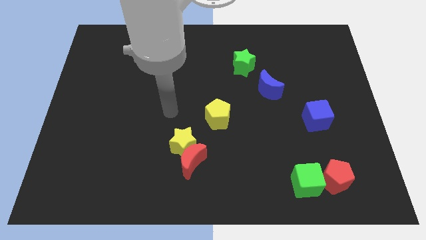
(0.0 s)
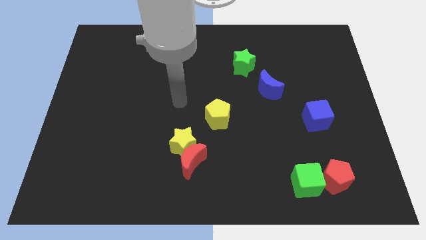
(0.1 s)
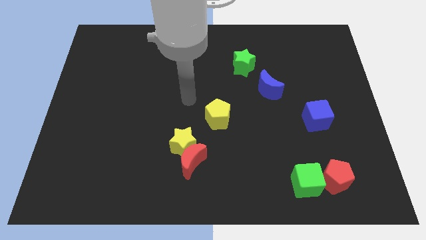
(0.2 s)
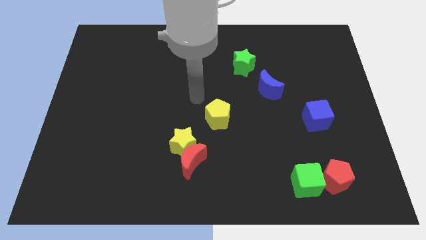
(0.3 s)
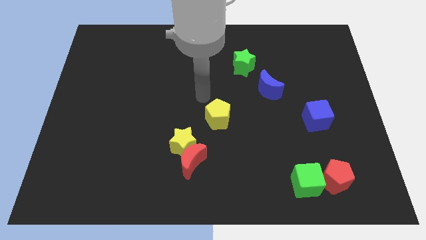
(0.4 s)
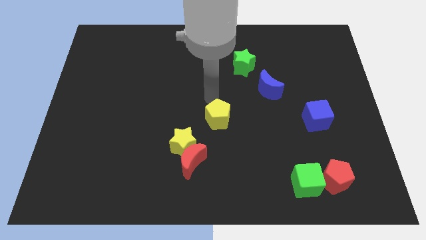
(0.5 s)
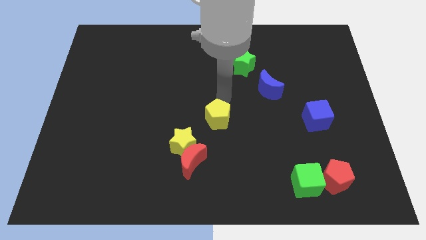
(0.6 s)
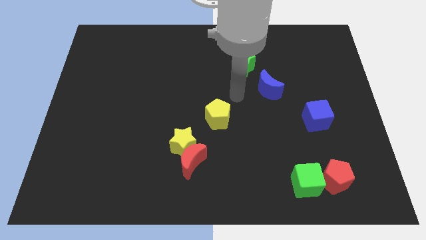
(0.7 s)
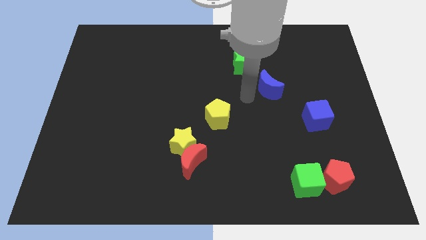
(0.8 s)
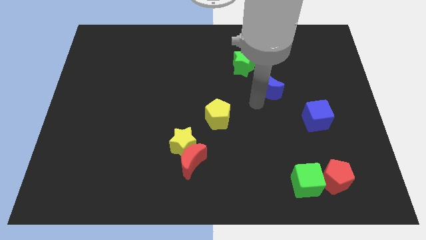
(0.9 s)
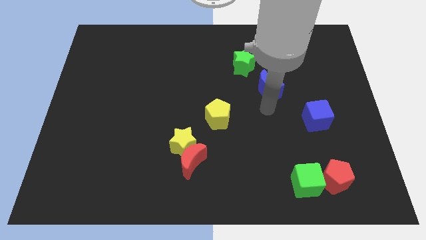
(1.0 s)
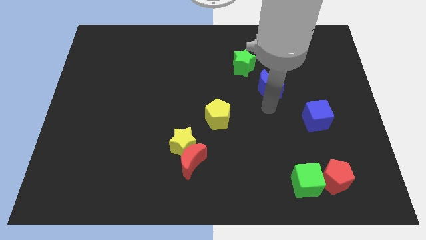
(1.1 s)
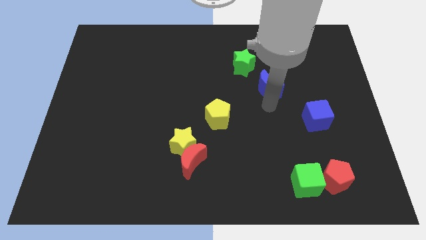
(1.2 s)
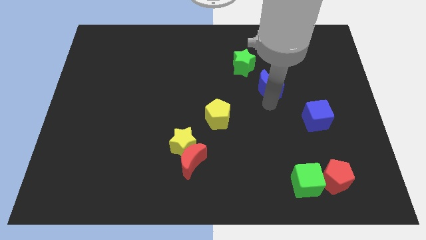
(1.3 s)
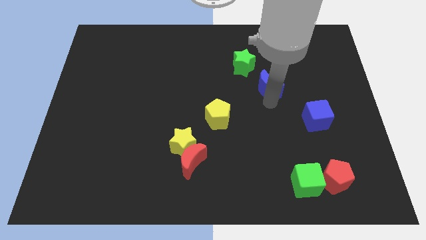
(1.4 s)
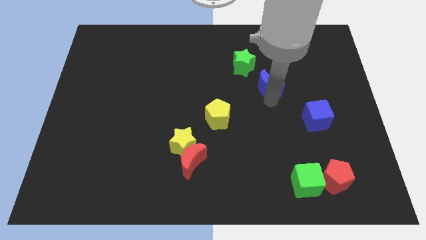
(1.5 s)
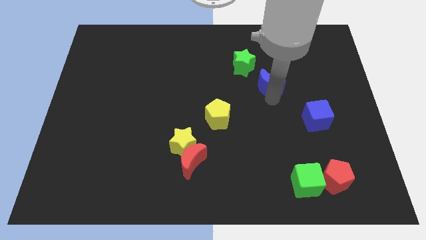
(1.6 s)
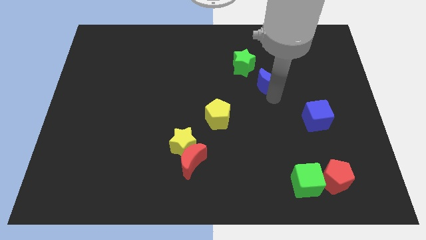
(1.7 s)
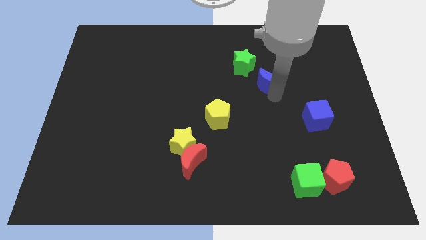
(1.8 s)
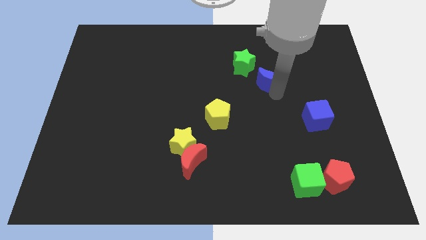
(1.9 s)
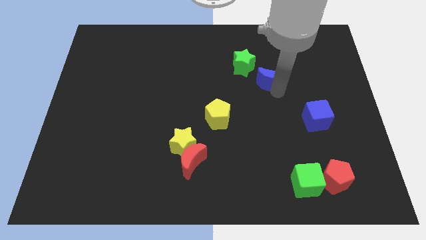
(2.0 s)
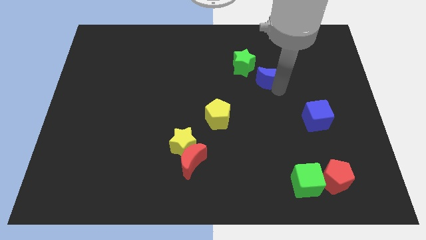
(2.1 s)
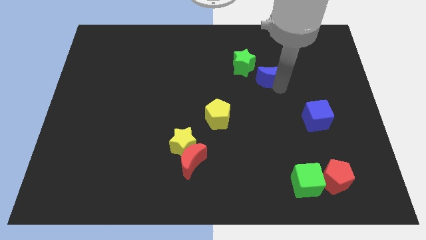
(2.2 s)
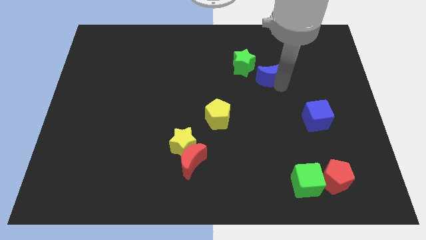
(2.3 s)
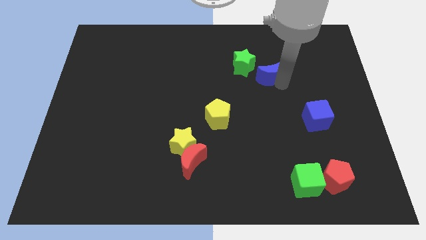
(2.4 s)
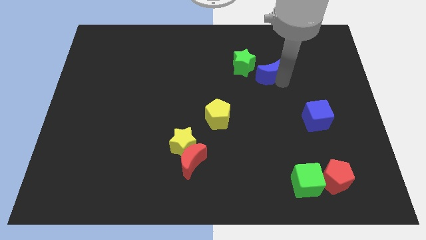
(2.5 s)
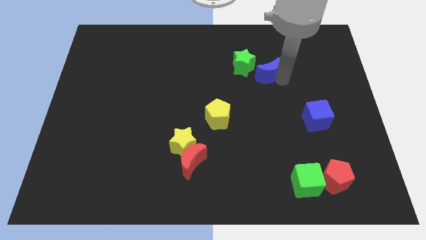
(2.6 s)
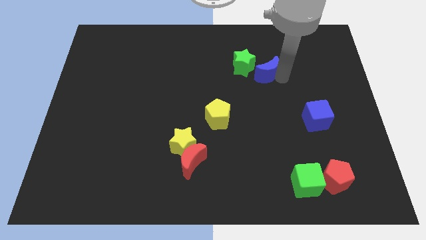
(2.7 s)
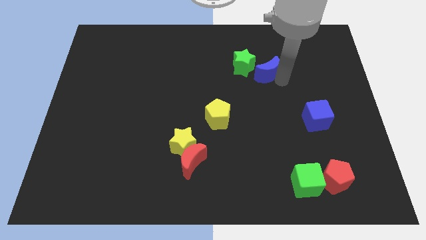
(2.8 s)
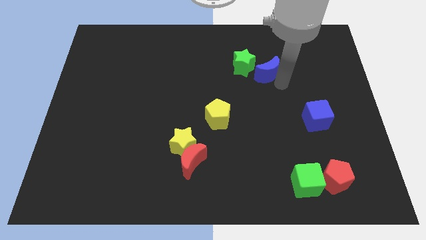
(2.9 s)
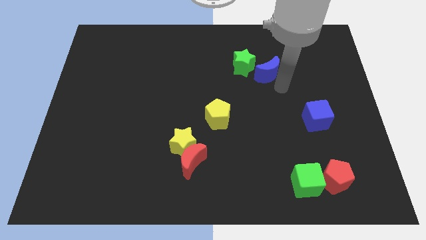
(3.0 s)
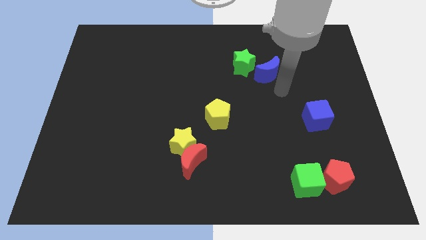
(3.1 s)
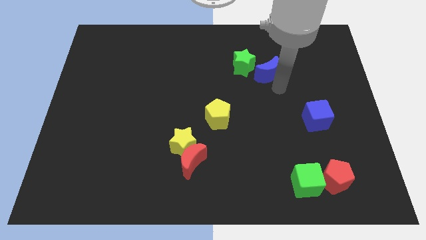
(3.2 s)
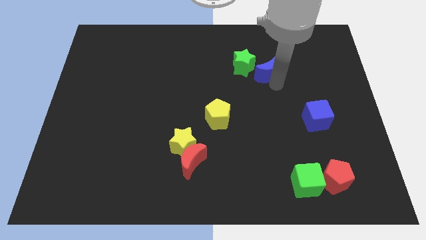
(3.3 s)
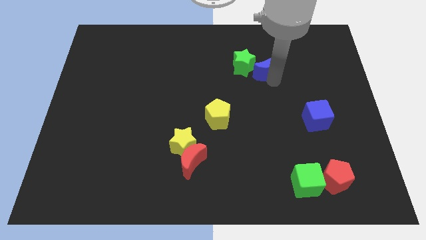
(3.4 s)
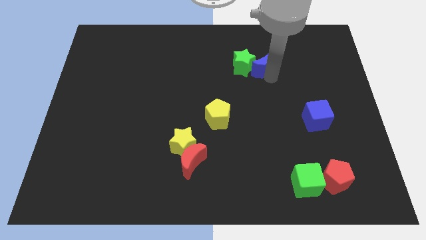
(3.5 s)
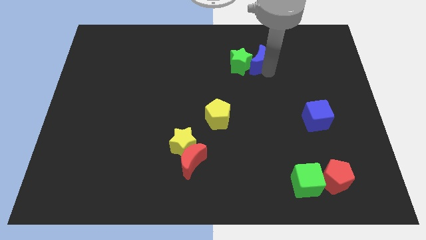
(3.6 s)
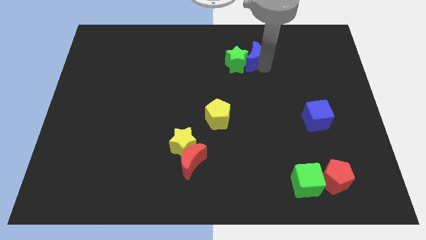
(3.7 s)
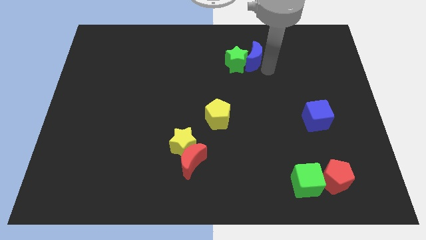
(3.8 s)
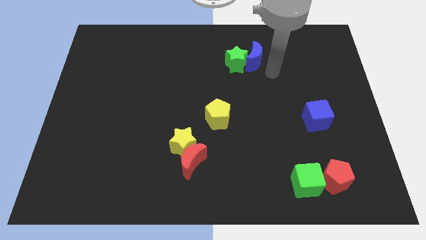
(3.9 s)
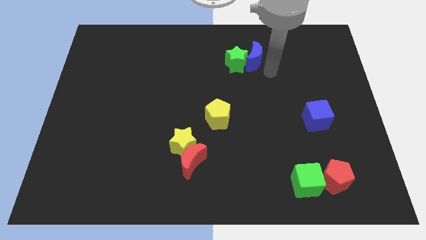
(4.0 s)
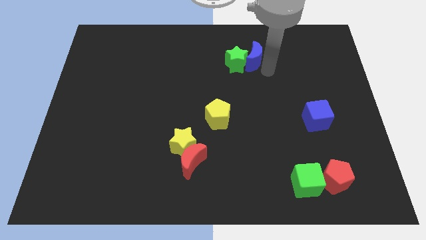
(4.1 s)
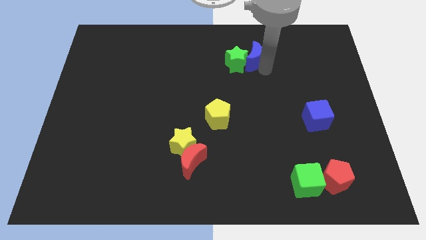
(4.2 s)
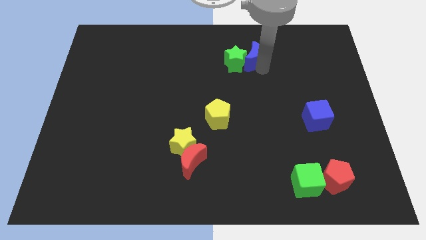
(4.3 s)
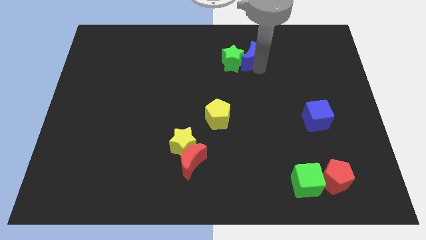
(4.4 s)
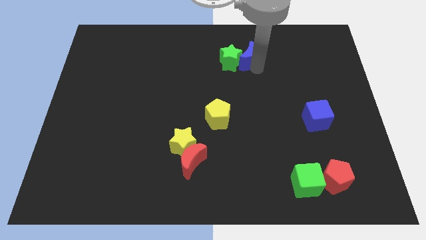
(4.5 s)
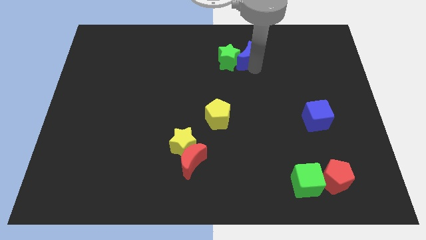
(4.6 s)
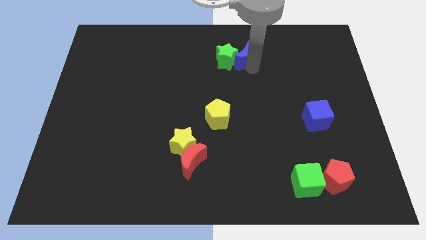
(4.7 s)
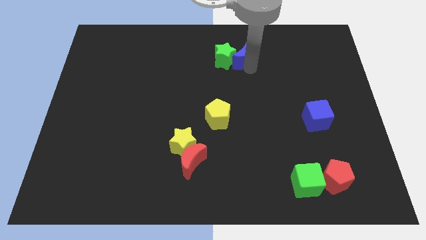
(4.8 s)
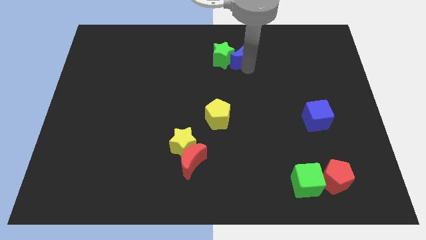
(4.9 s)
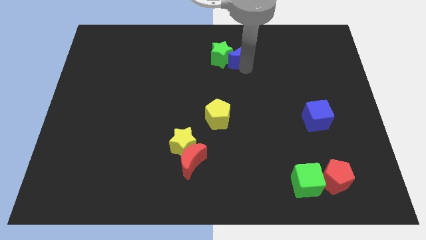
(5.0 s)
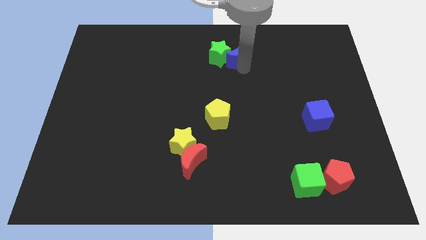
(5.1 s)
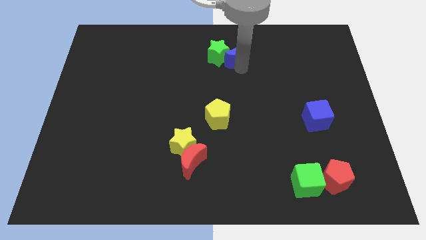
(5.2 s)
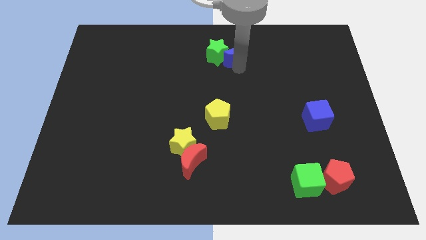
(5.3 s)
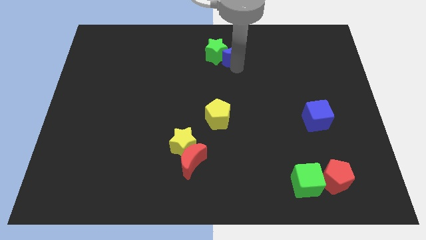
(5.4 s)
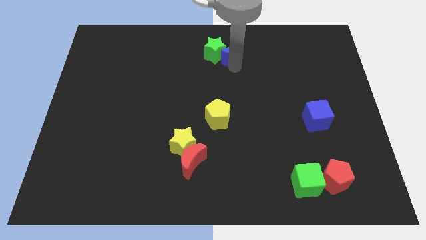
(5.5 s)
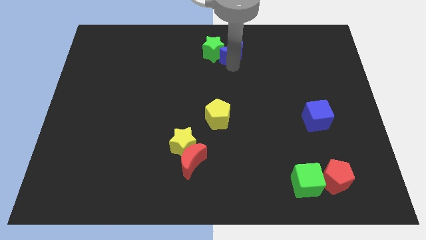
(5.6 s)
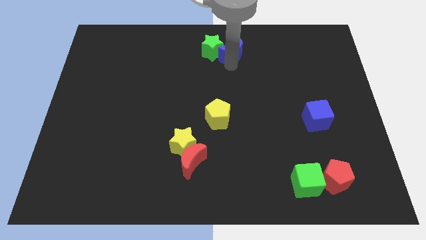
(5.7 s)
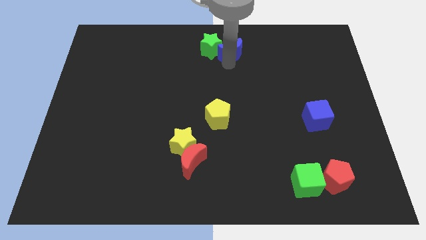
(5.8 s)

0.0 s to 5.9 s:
put the blue moon to the top

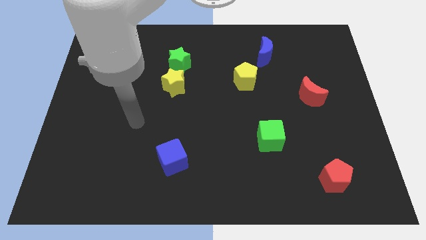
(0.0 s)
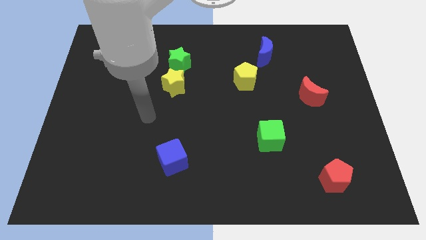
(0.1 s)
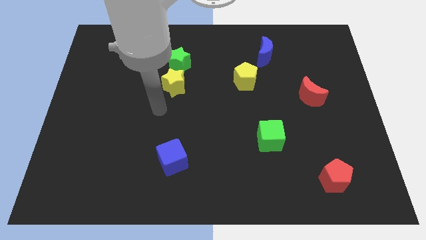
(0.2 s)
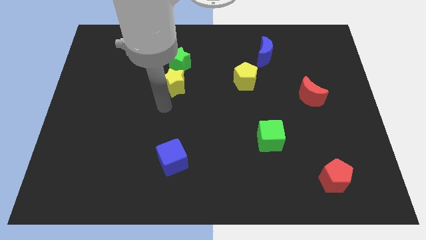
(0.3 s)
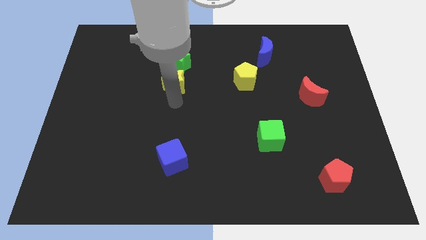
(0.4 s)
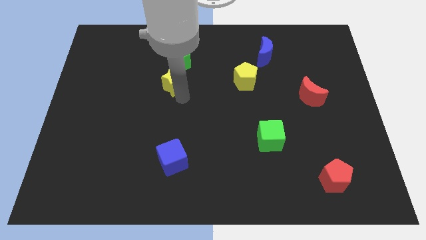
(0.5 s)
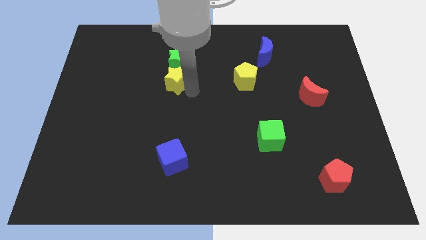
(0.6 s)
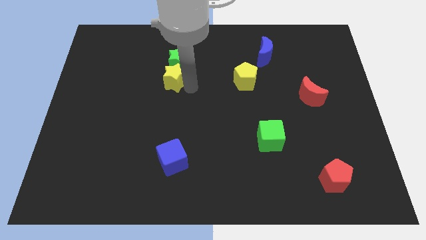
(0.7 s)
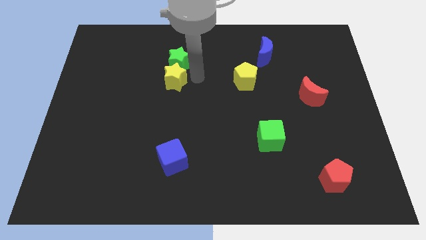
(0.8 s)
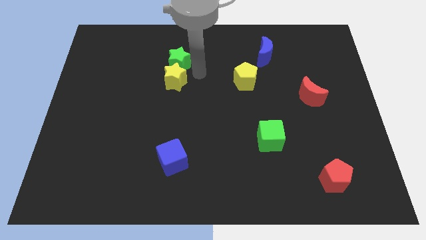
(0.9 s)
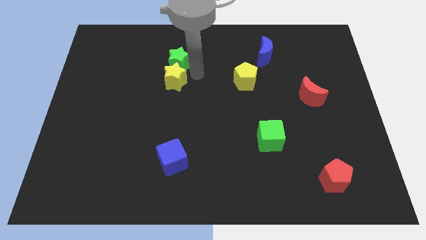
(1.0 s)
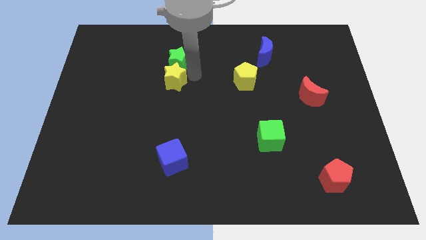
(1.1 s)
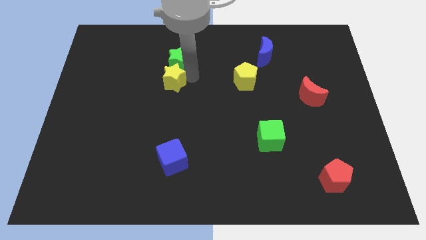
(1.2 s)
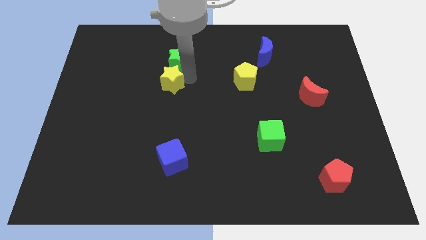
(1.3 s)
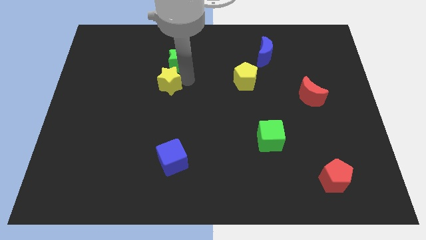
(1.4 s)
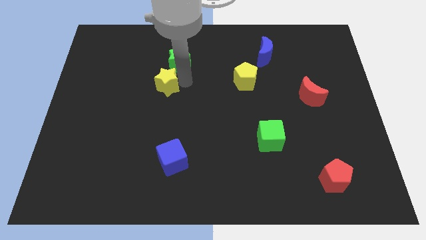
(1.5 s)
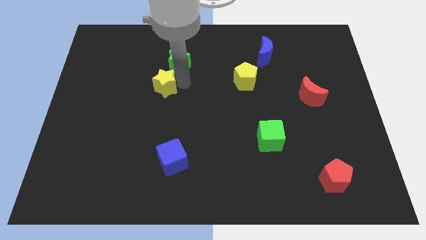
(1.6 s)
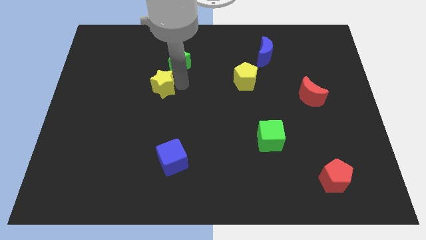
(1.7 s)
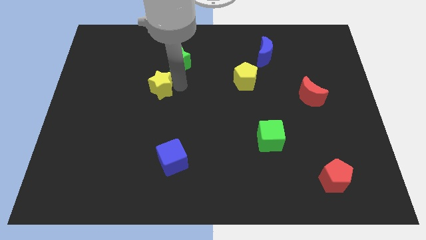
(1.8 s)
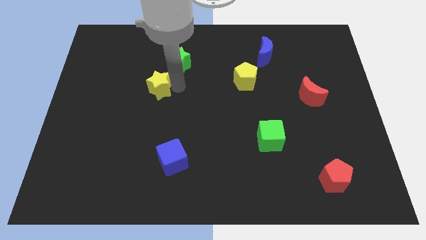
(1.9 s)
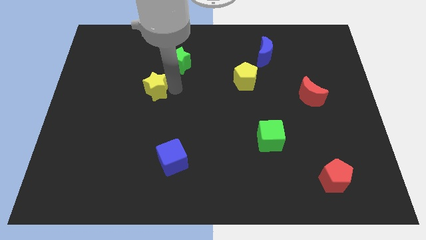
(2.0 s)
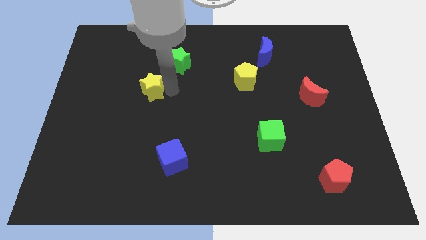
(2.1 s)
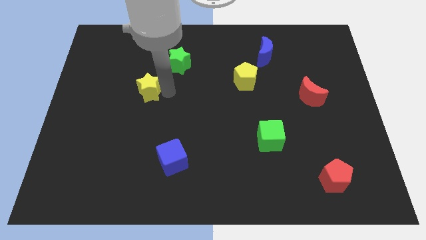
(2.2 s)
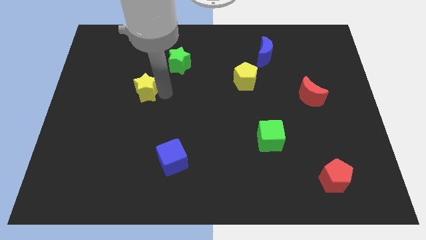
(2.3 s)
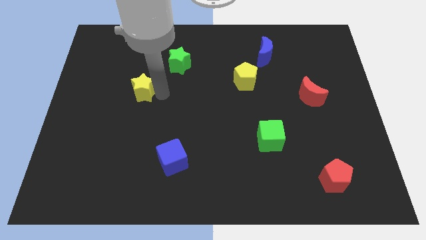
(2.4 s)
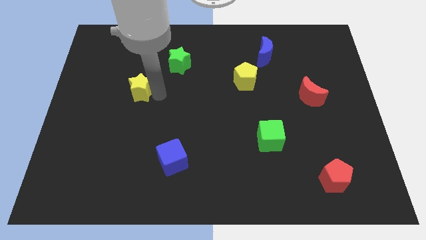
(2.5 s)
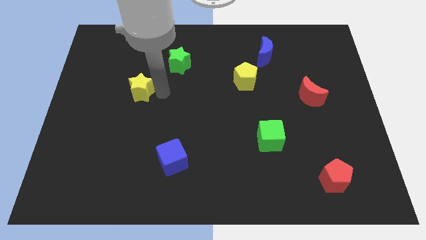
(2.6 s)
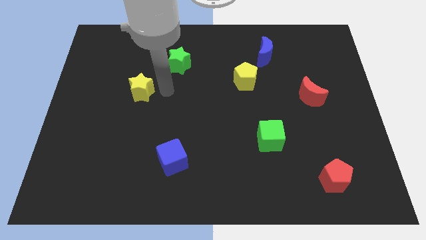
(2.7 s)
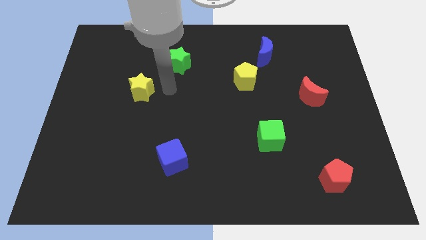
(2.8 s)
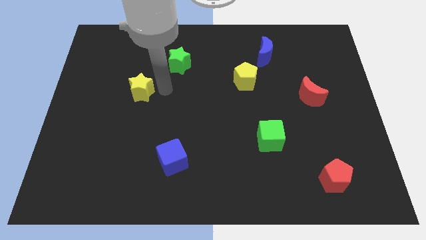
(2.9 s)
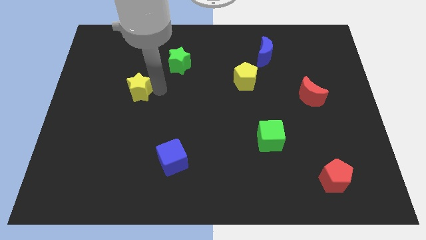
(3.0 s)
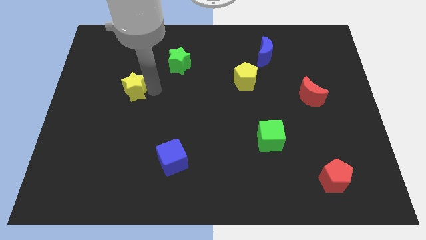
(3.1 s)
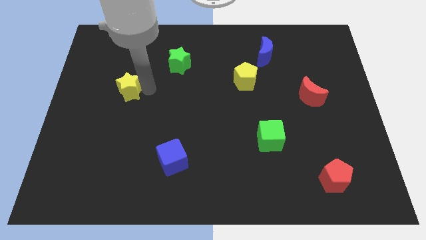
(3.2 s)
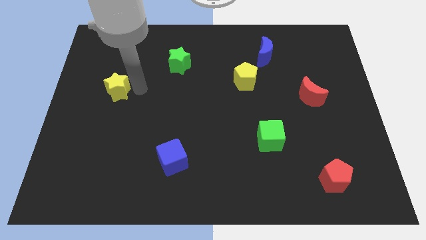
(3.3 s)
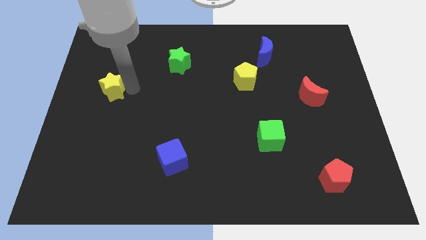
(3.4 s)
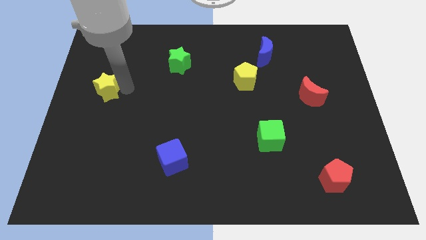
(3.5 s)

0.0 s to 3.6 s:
slide the yellow star to the left side
